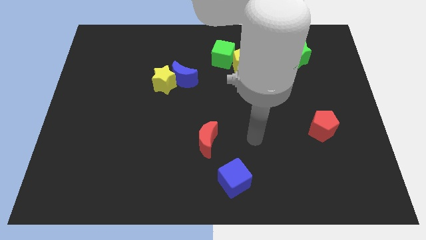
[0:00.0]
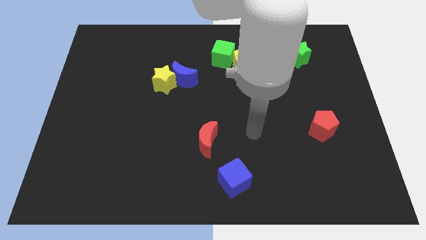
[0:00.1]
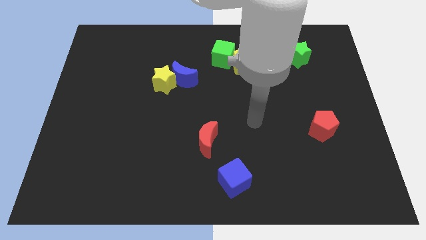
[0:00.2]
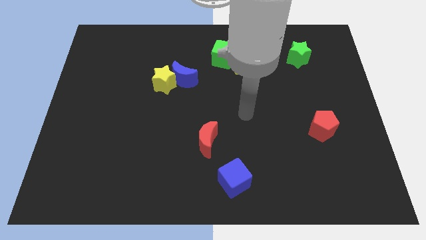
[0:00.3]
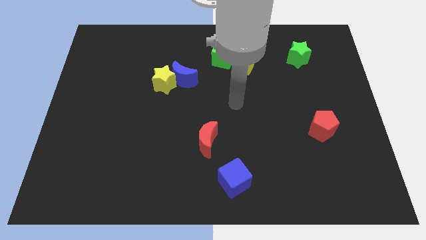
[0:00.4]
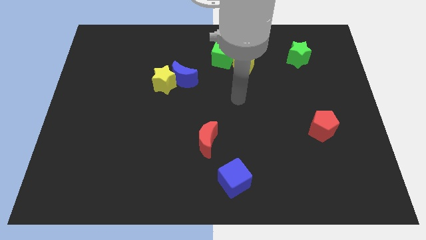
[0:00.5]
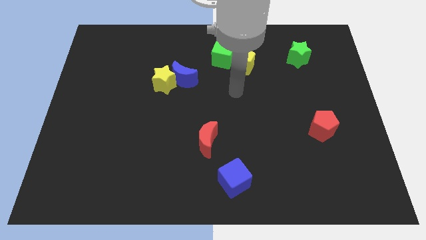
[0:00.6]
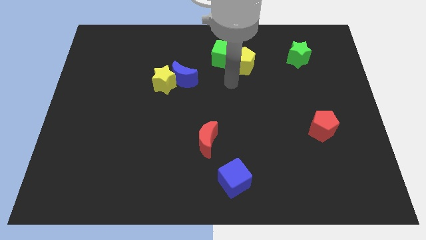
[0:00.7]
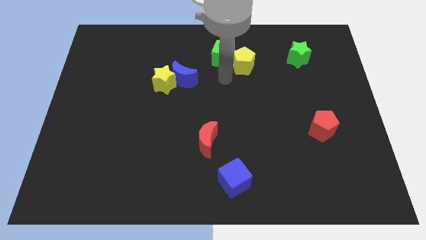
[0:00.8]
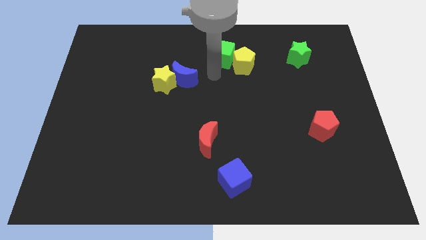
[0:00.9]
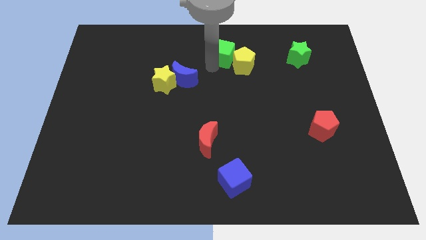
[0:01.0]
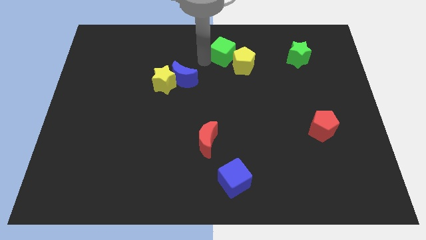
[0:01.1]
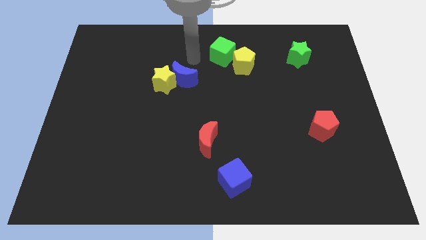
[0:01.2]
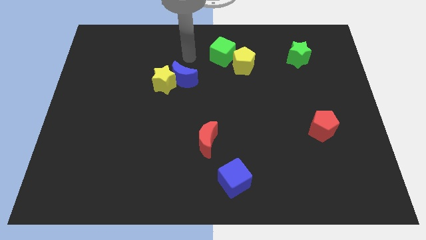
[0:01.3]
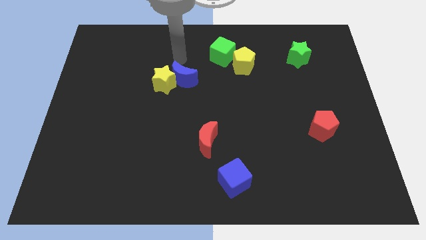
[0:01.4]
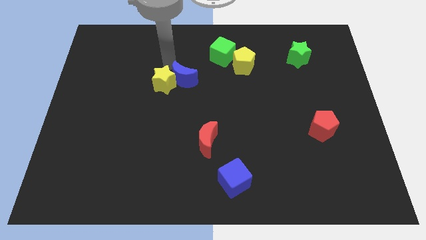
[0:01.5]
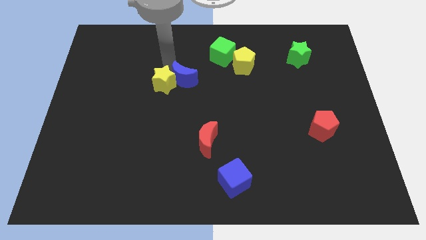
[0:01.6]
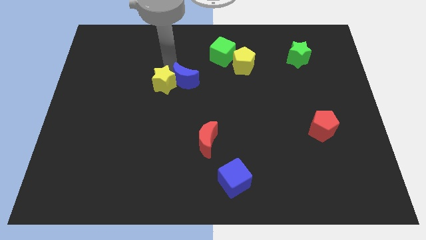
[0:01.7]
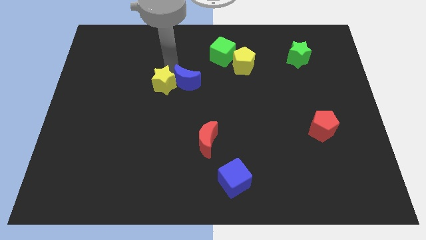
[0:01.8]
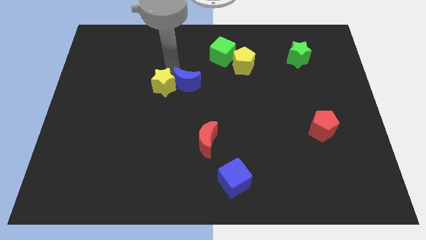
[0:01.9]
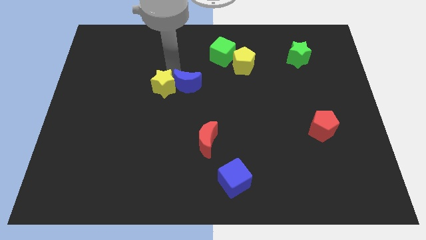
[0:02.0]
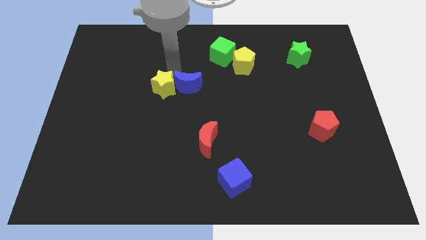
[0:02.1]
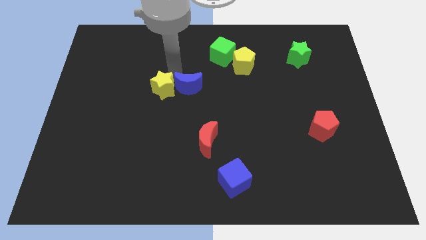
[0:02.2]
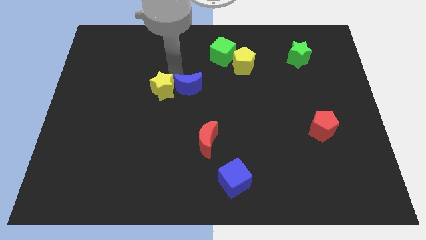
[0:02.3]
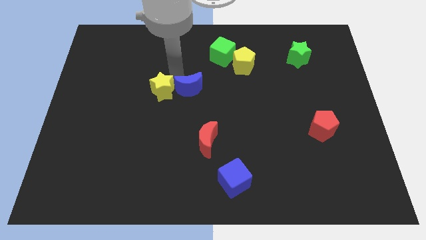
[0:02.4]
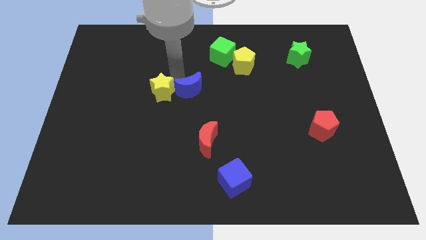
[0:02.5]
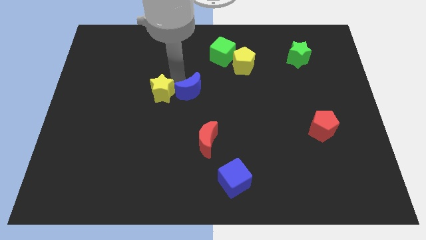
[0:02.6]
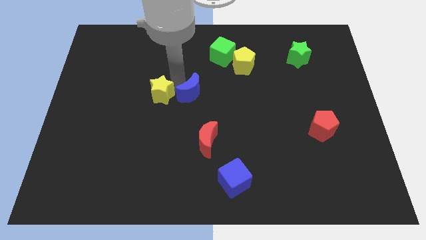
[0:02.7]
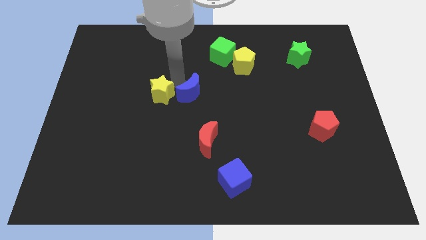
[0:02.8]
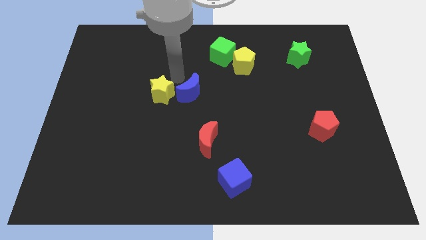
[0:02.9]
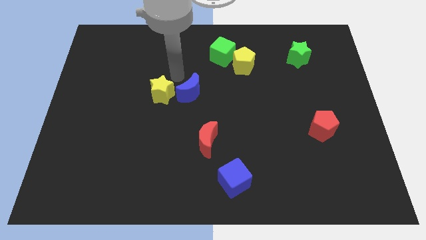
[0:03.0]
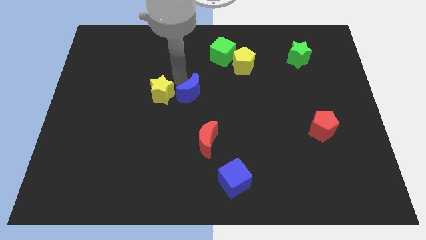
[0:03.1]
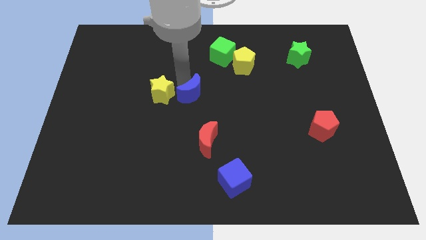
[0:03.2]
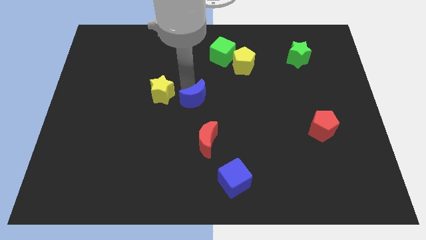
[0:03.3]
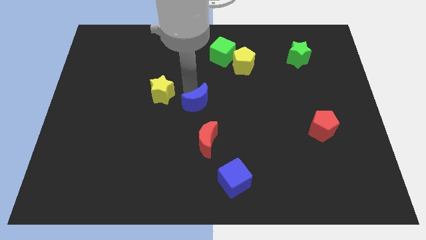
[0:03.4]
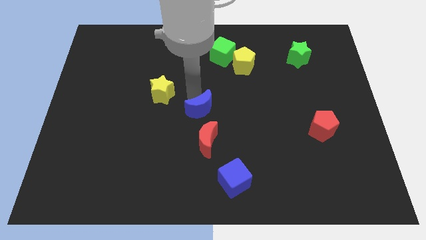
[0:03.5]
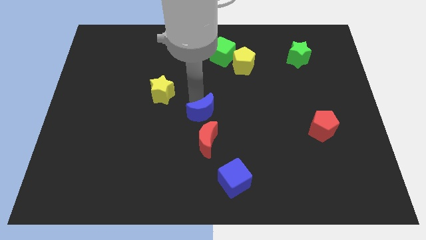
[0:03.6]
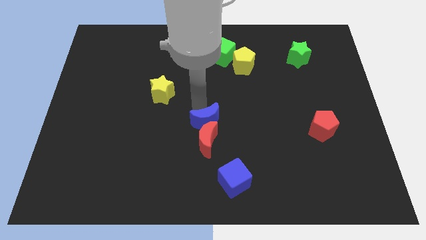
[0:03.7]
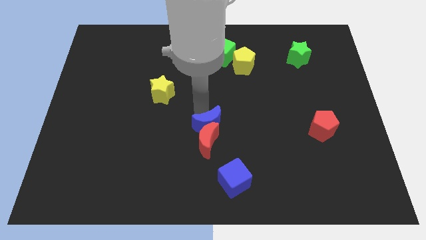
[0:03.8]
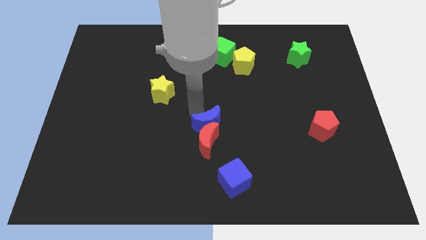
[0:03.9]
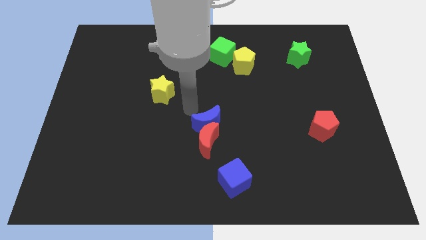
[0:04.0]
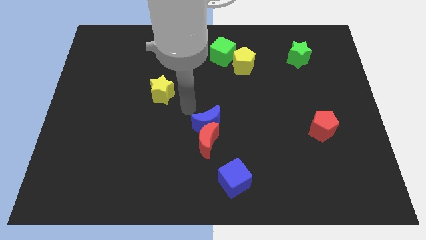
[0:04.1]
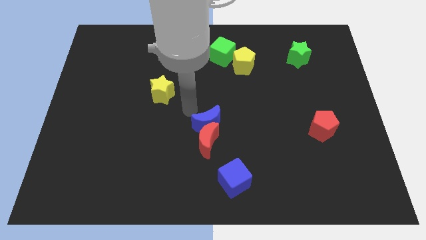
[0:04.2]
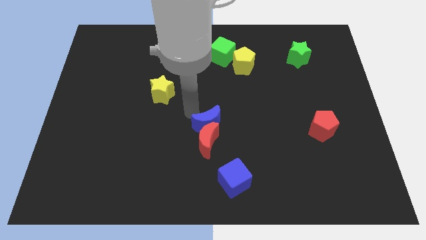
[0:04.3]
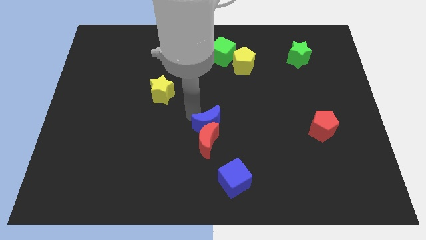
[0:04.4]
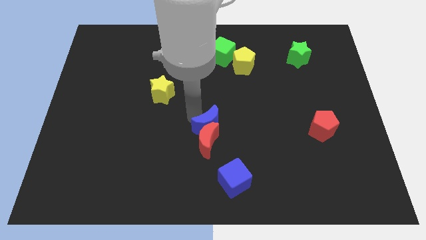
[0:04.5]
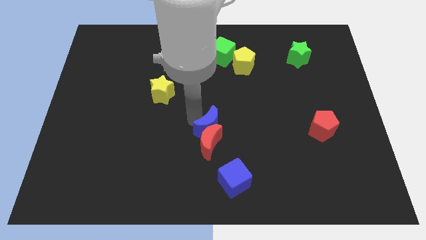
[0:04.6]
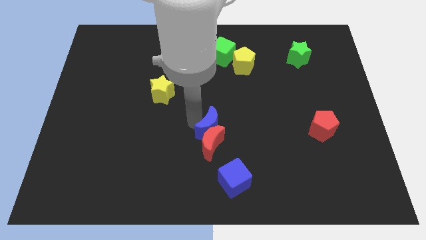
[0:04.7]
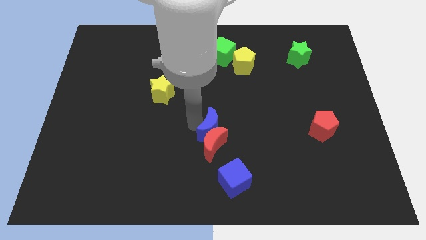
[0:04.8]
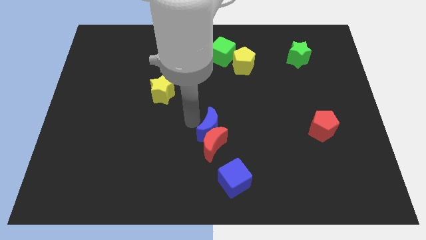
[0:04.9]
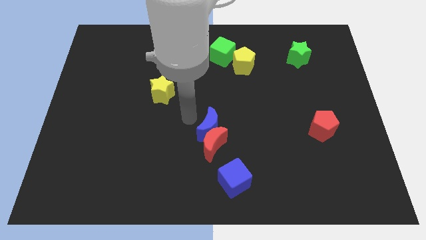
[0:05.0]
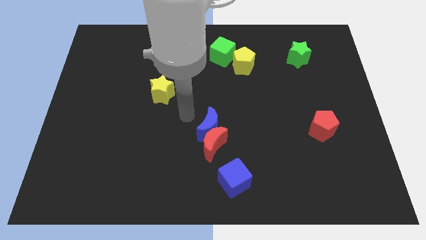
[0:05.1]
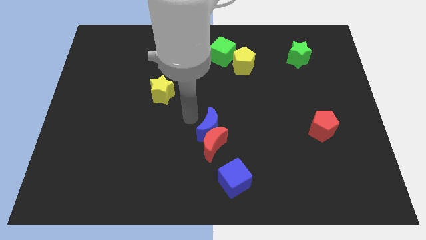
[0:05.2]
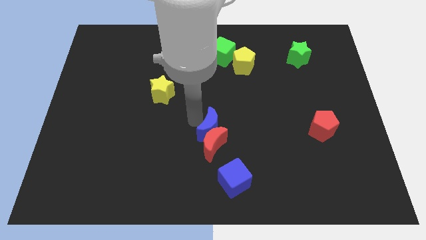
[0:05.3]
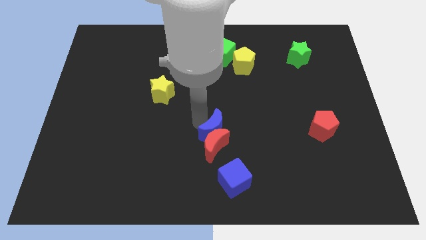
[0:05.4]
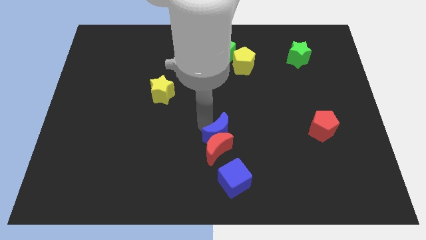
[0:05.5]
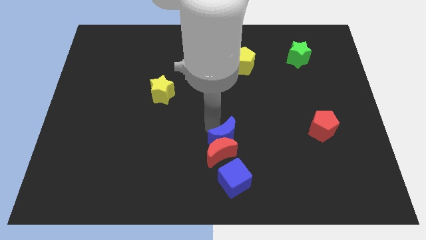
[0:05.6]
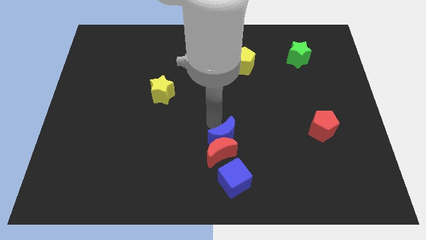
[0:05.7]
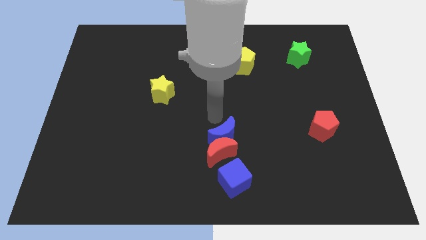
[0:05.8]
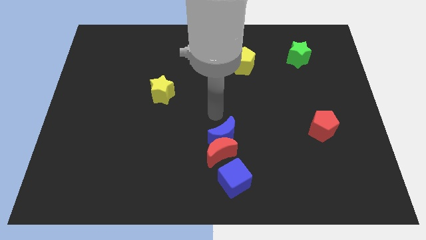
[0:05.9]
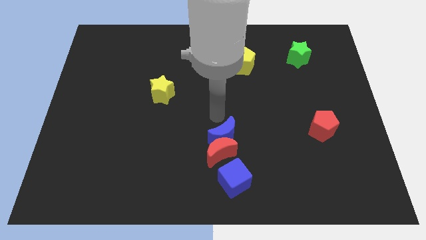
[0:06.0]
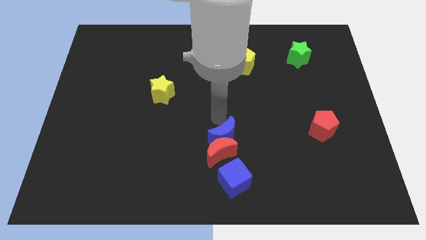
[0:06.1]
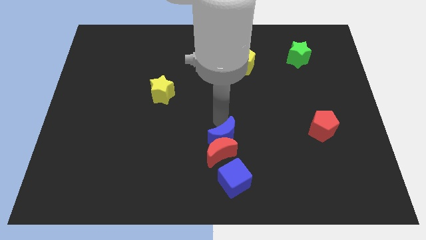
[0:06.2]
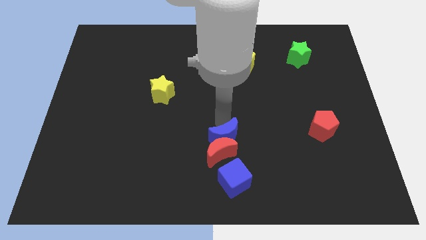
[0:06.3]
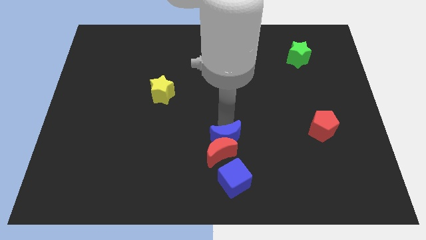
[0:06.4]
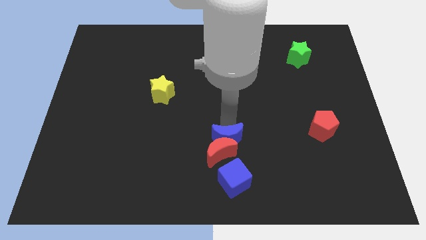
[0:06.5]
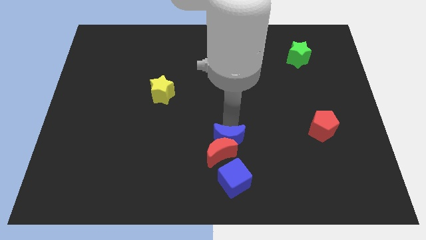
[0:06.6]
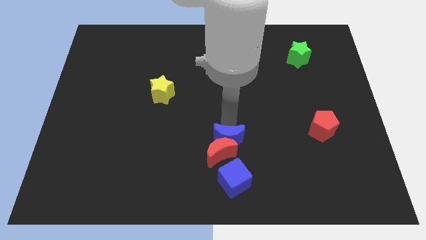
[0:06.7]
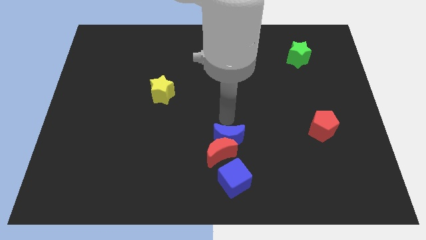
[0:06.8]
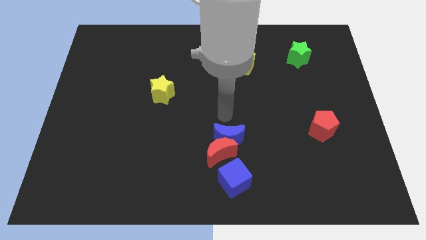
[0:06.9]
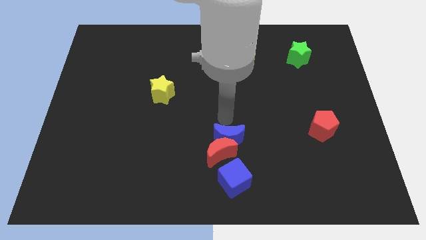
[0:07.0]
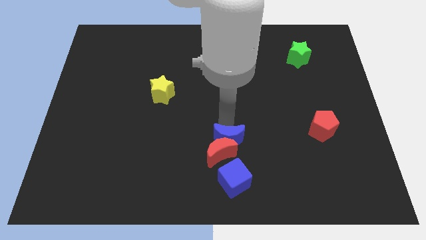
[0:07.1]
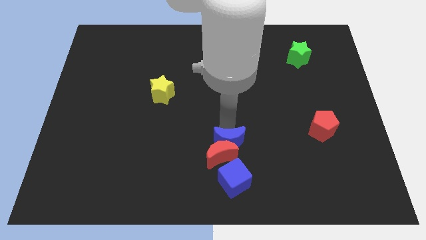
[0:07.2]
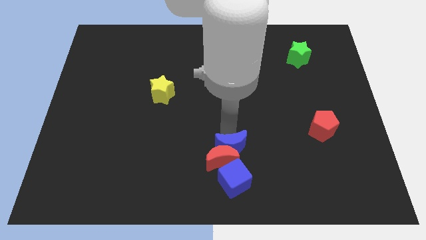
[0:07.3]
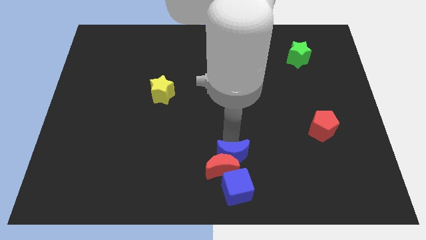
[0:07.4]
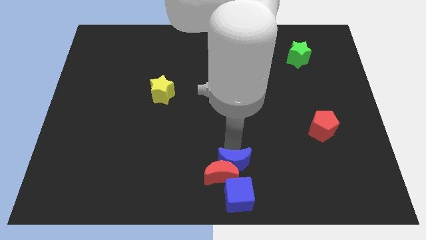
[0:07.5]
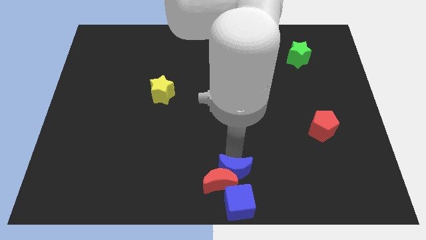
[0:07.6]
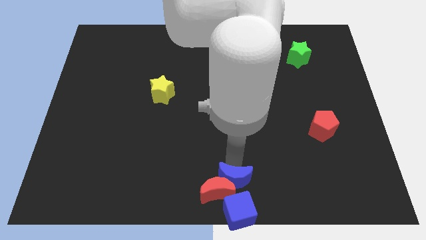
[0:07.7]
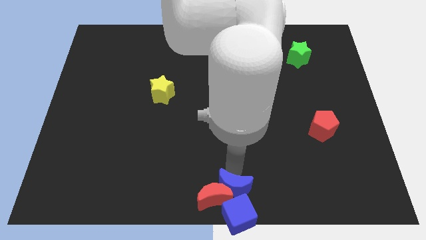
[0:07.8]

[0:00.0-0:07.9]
push the blue moon towards the blue cube
